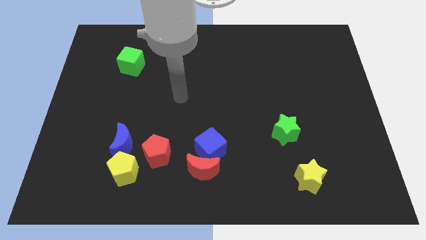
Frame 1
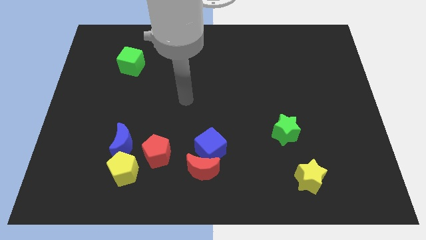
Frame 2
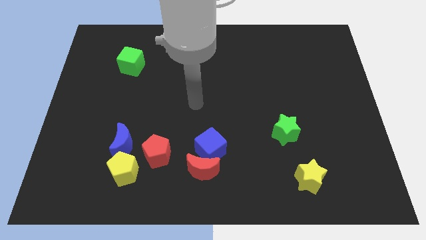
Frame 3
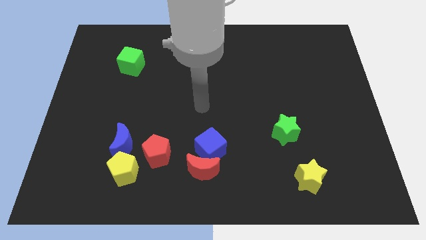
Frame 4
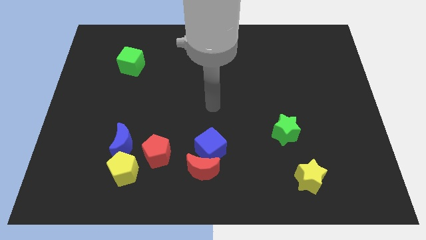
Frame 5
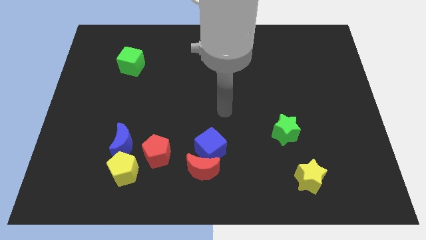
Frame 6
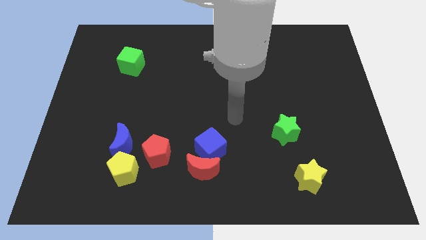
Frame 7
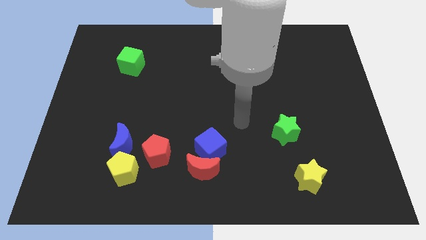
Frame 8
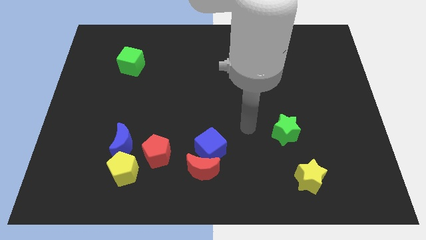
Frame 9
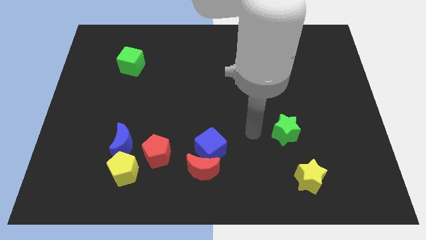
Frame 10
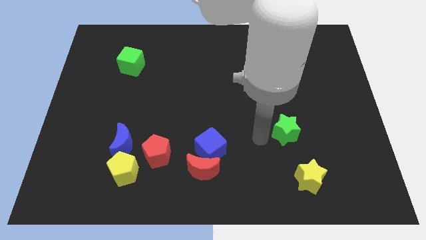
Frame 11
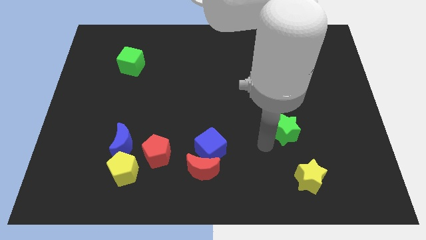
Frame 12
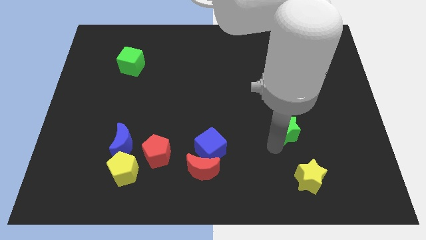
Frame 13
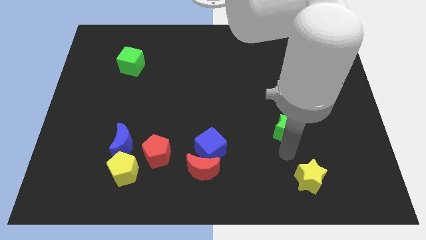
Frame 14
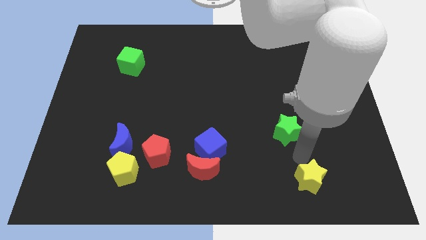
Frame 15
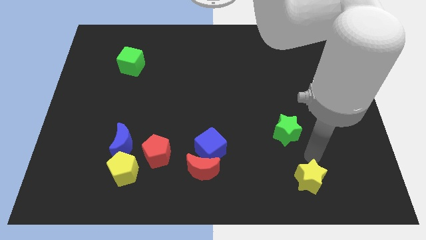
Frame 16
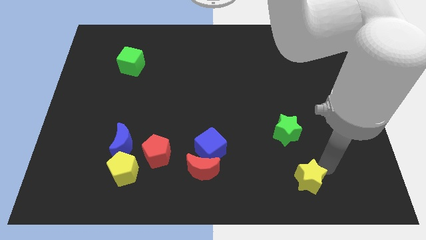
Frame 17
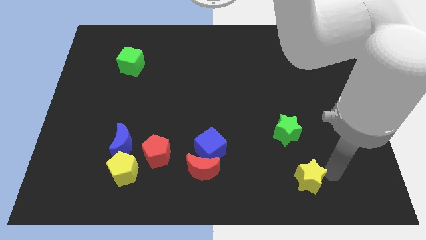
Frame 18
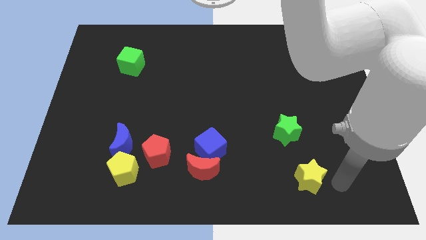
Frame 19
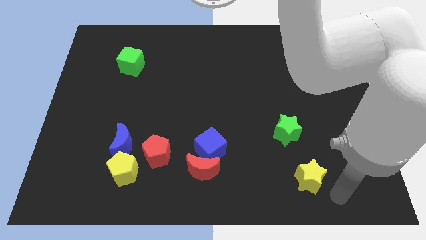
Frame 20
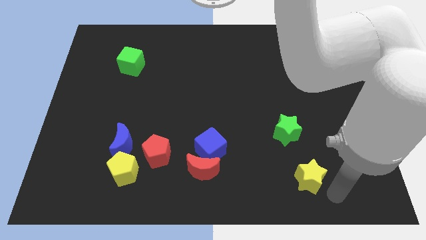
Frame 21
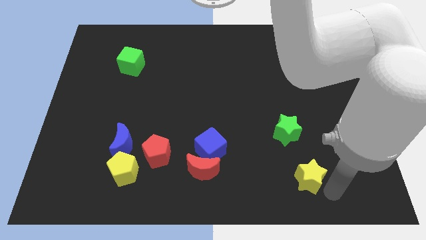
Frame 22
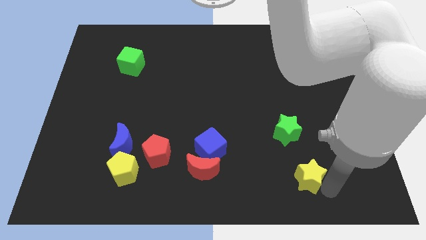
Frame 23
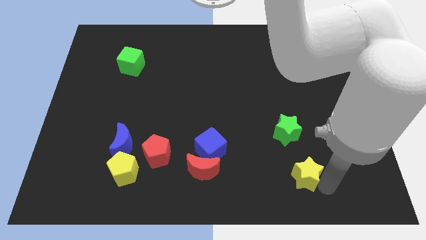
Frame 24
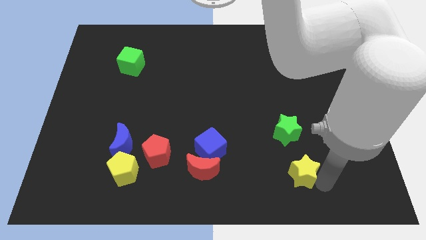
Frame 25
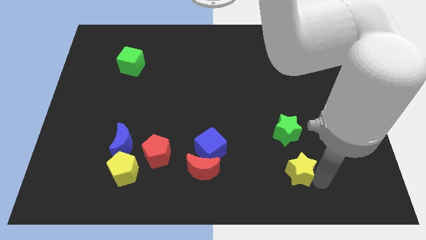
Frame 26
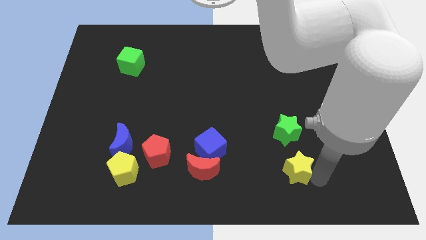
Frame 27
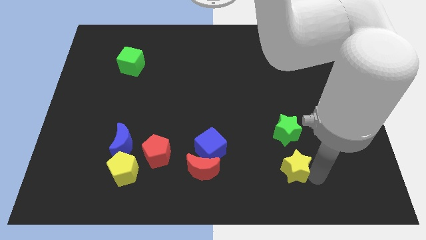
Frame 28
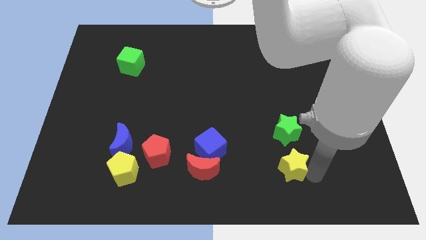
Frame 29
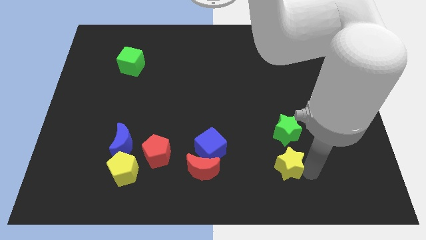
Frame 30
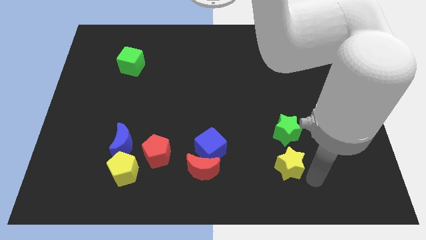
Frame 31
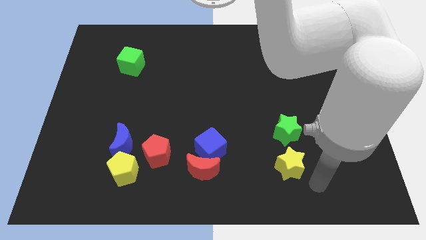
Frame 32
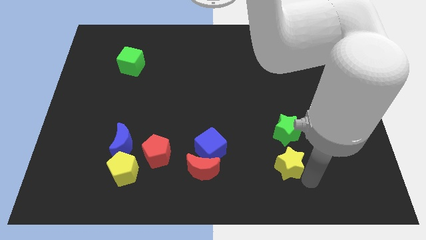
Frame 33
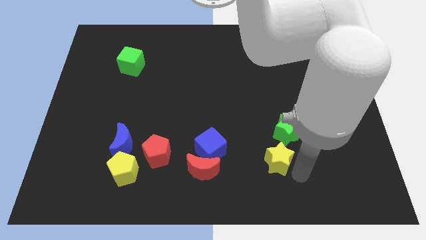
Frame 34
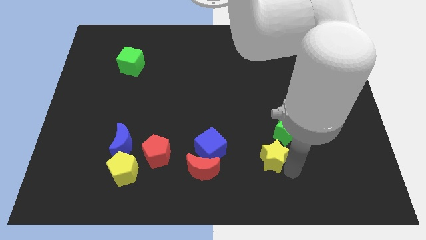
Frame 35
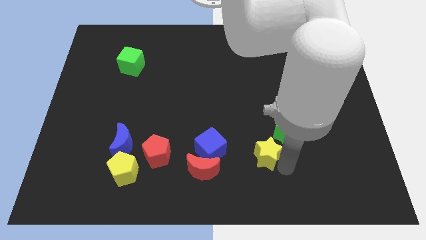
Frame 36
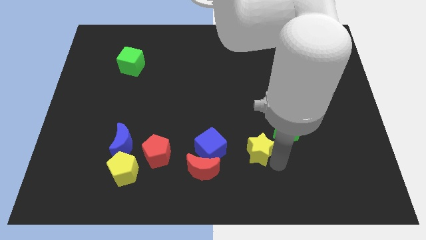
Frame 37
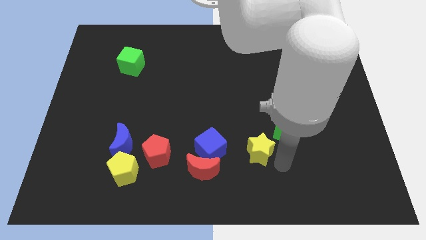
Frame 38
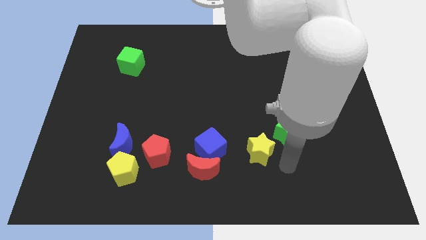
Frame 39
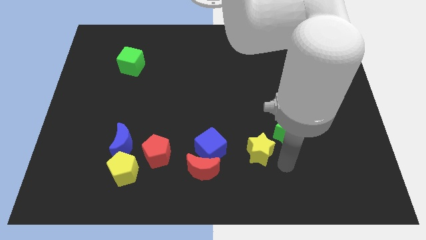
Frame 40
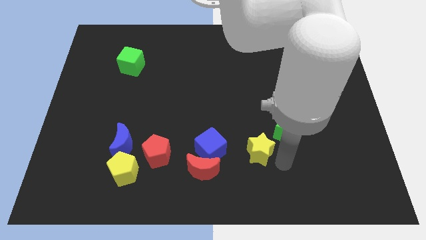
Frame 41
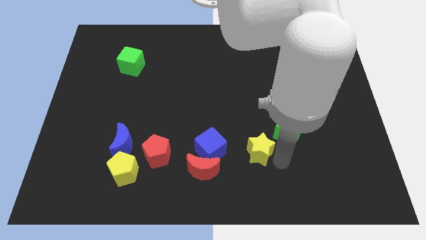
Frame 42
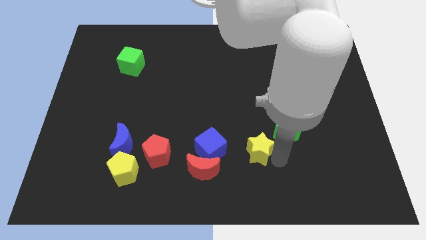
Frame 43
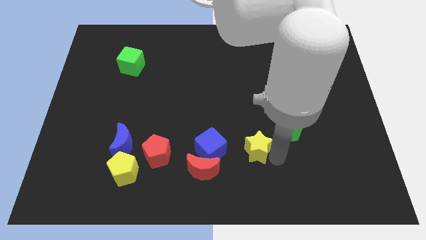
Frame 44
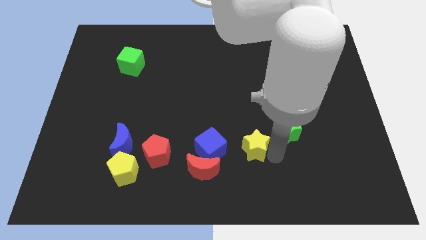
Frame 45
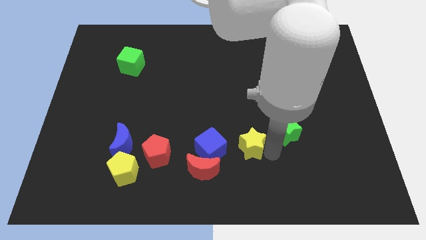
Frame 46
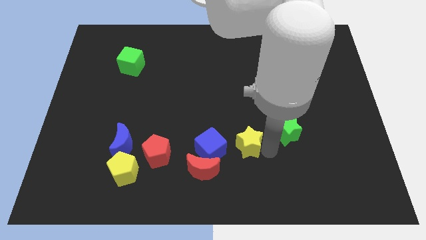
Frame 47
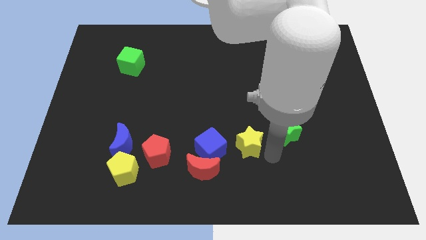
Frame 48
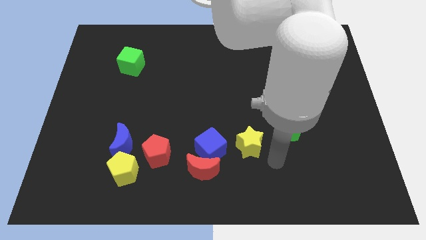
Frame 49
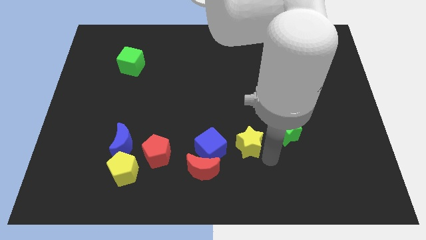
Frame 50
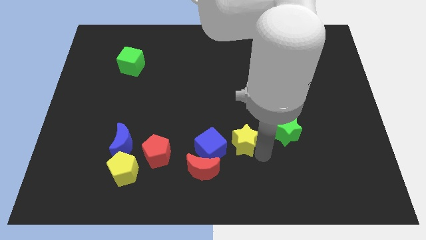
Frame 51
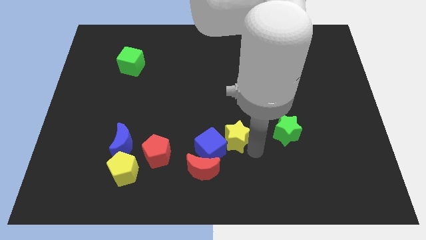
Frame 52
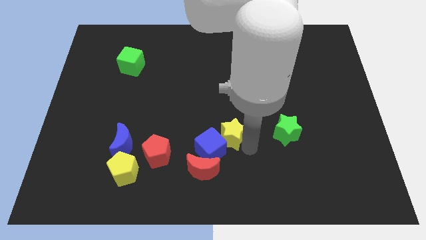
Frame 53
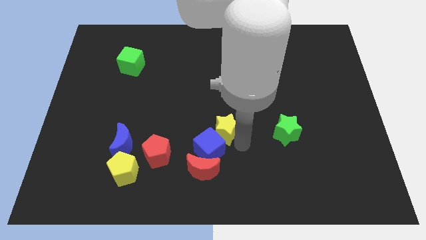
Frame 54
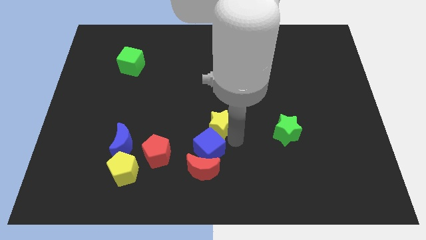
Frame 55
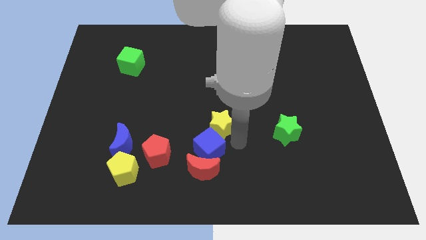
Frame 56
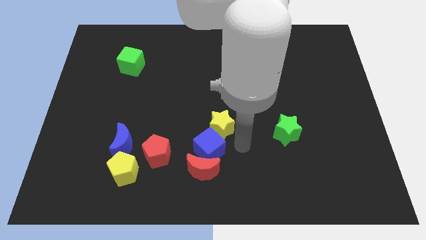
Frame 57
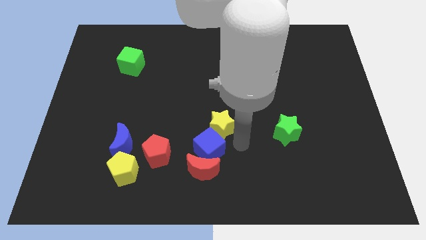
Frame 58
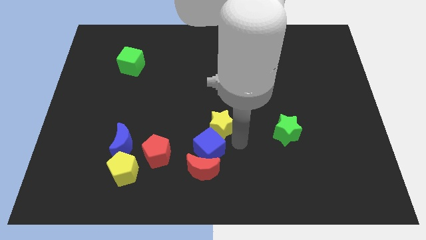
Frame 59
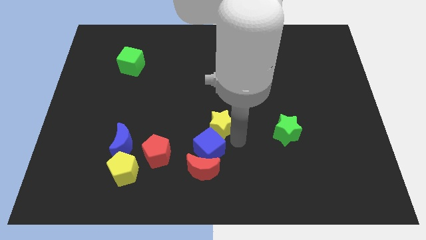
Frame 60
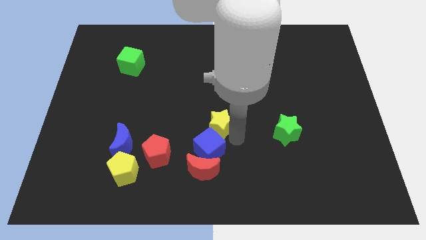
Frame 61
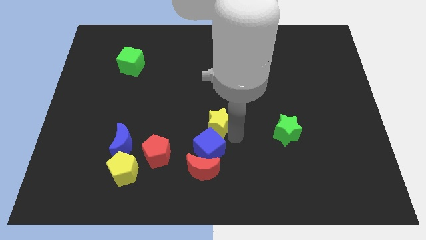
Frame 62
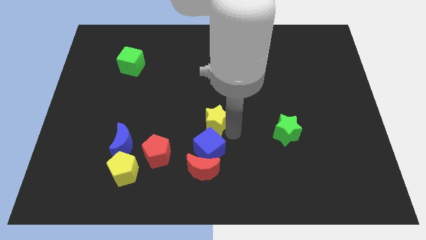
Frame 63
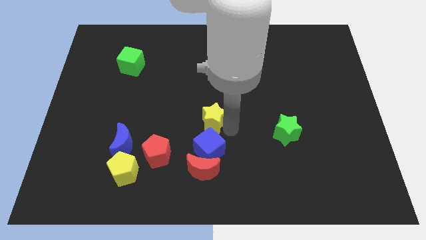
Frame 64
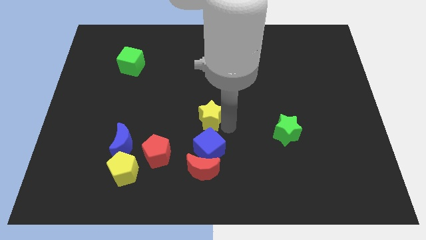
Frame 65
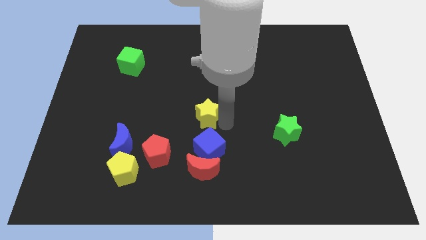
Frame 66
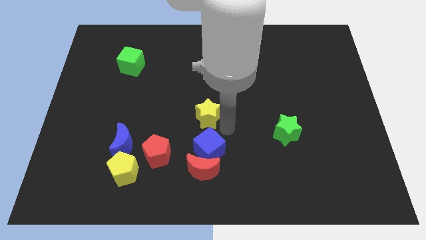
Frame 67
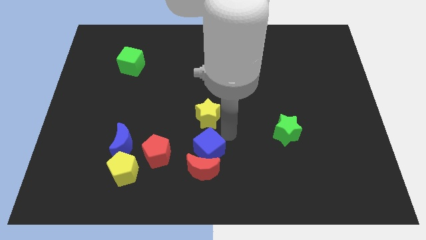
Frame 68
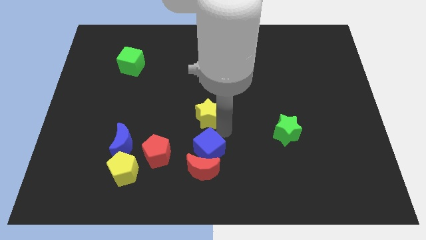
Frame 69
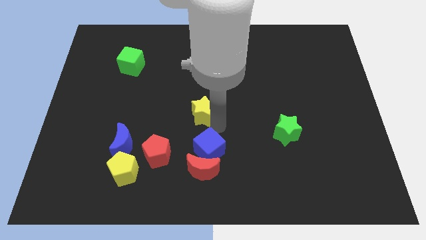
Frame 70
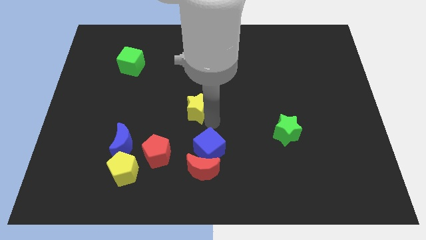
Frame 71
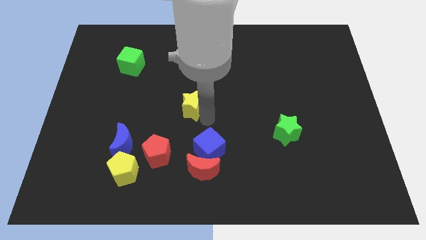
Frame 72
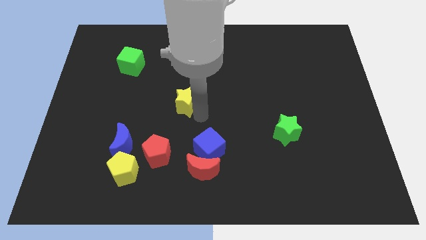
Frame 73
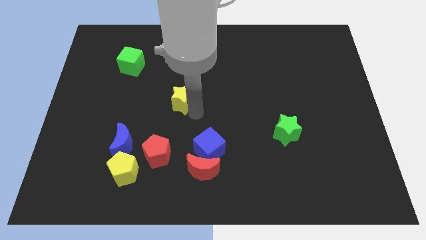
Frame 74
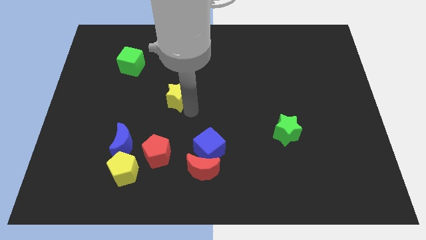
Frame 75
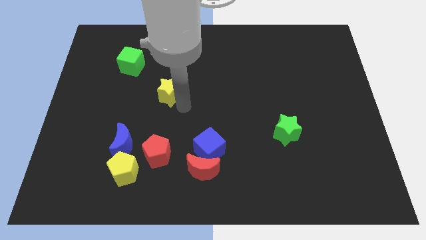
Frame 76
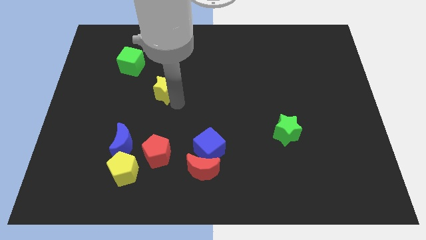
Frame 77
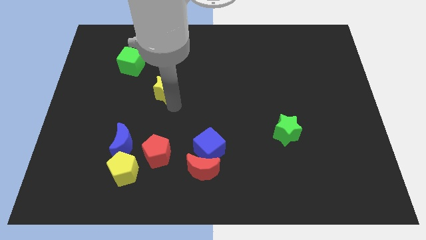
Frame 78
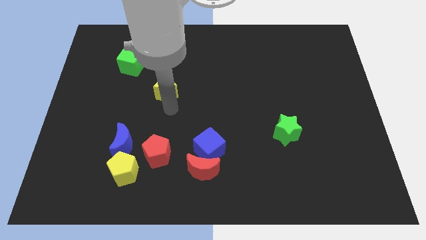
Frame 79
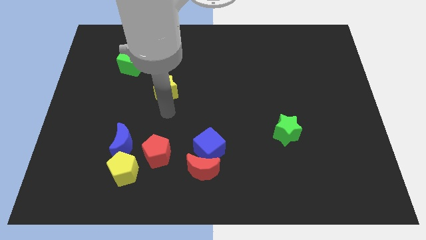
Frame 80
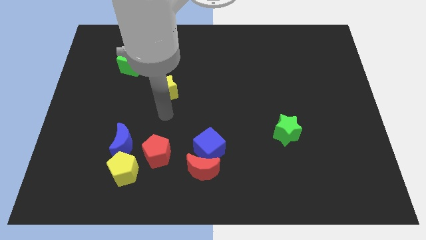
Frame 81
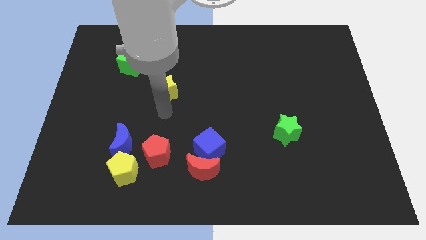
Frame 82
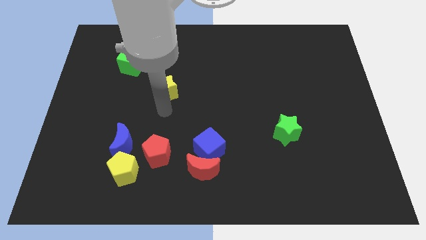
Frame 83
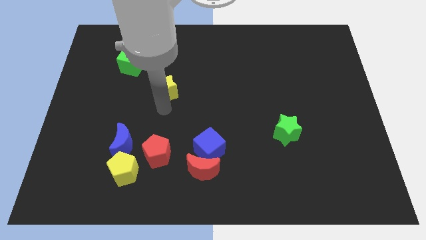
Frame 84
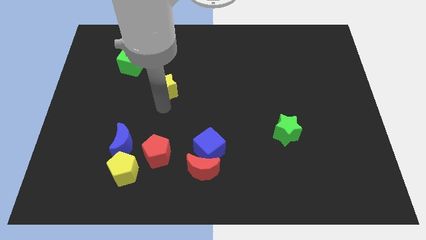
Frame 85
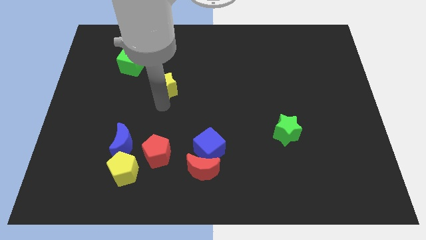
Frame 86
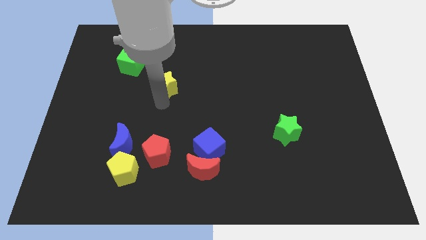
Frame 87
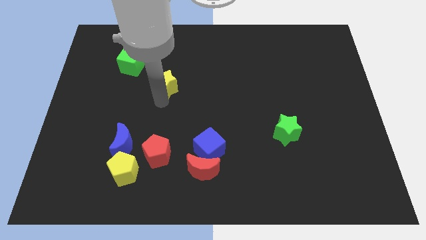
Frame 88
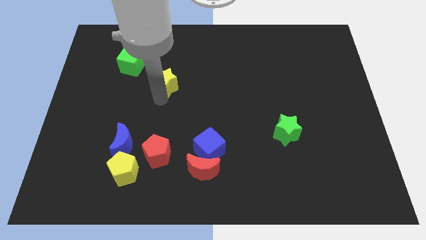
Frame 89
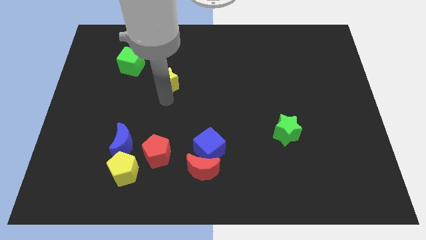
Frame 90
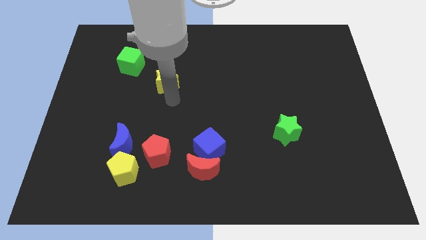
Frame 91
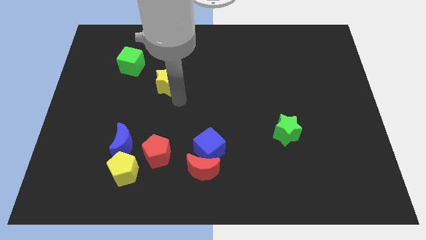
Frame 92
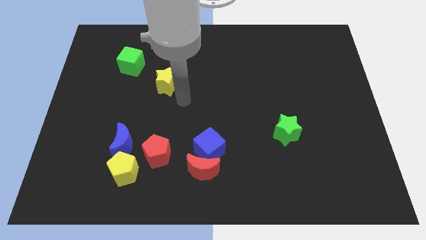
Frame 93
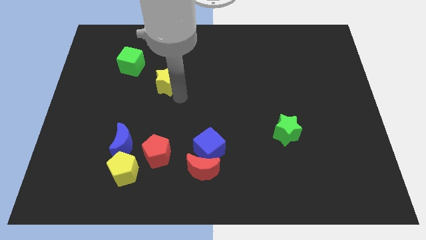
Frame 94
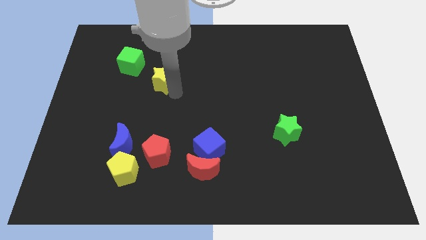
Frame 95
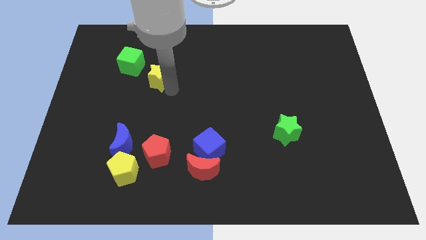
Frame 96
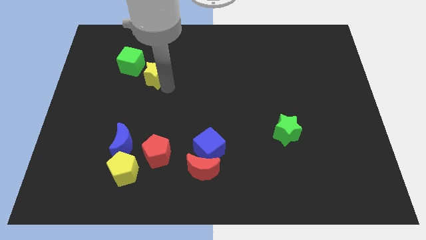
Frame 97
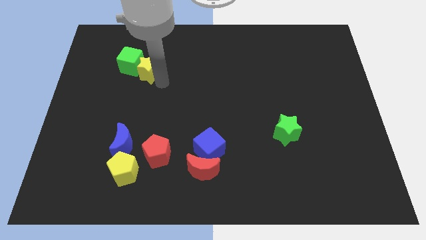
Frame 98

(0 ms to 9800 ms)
move the yellow star to the green cube
